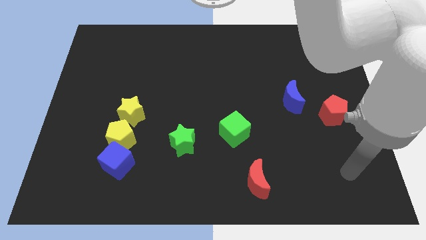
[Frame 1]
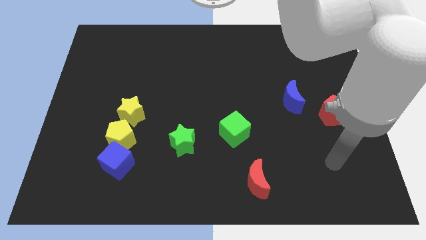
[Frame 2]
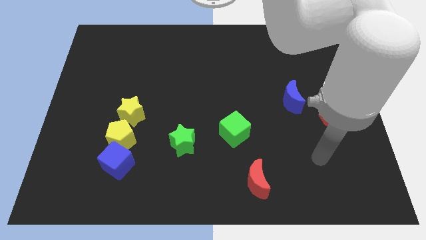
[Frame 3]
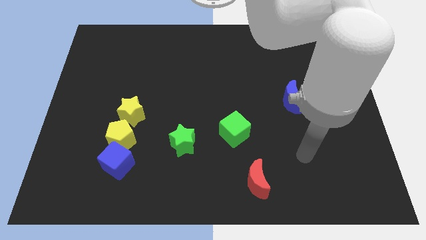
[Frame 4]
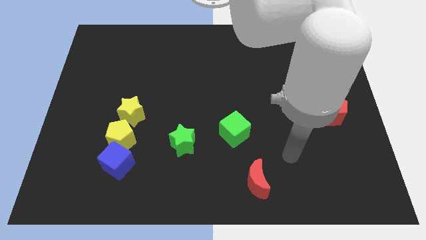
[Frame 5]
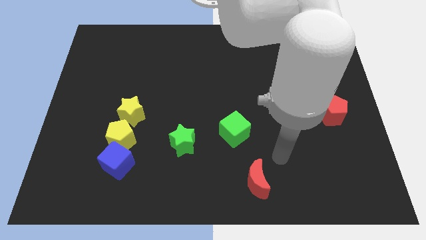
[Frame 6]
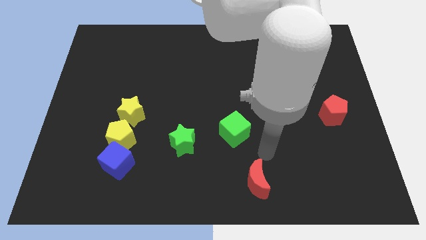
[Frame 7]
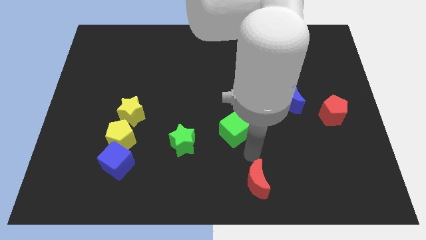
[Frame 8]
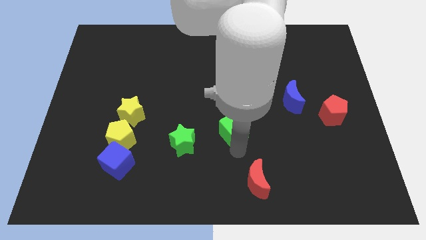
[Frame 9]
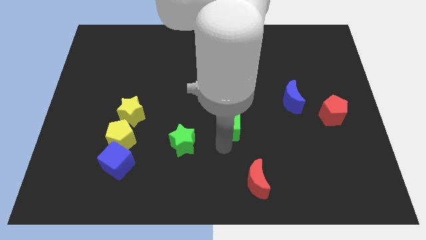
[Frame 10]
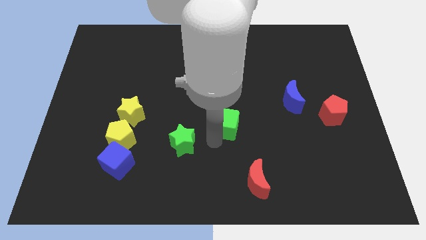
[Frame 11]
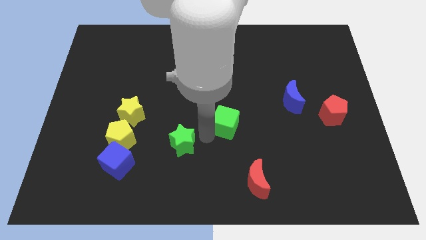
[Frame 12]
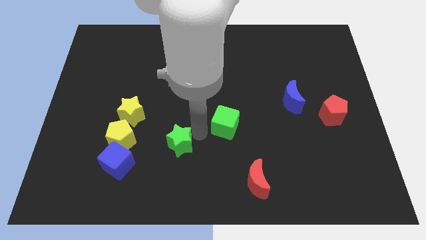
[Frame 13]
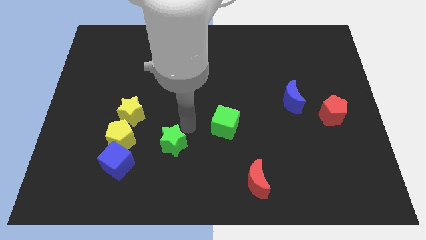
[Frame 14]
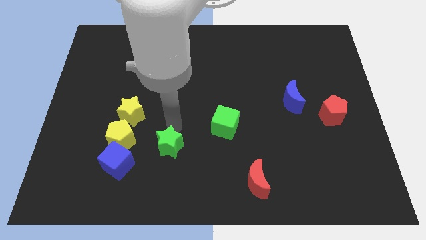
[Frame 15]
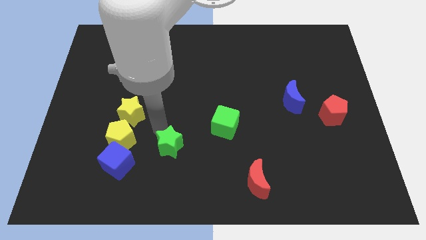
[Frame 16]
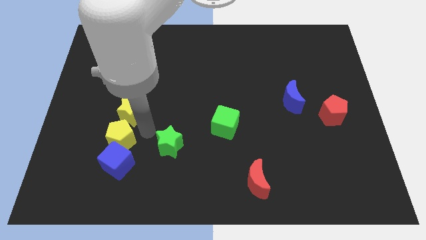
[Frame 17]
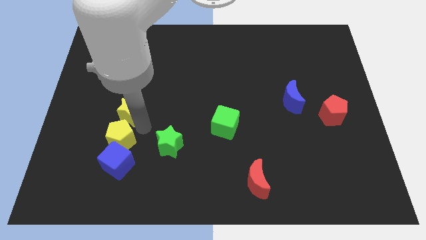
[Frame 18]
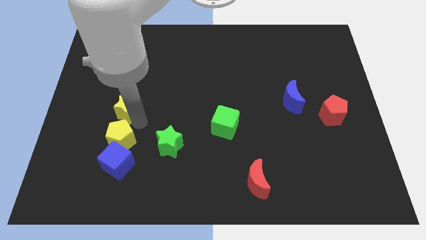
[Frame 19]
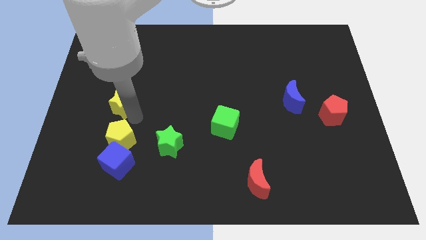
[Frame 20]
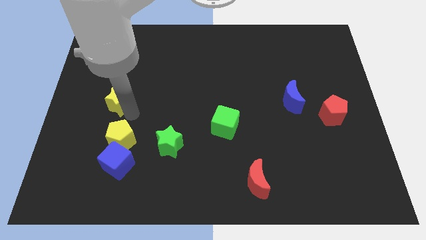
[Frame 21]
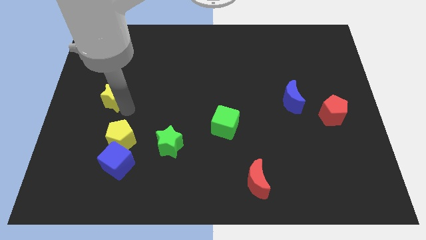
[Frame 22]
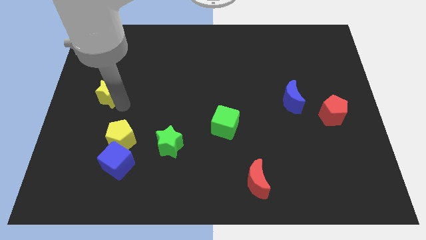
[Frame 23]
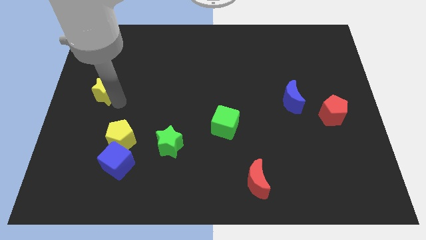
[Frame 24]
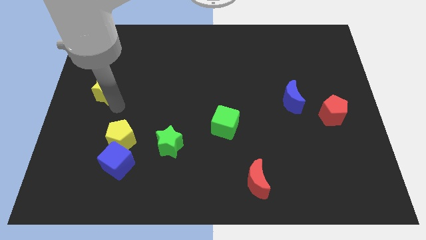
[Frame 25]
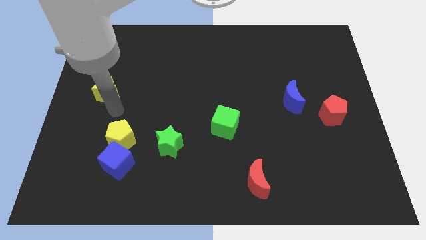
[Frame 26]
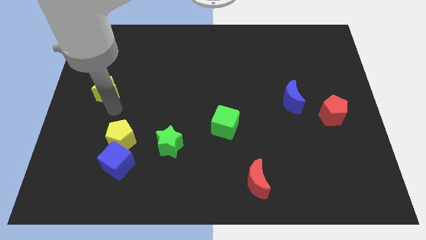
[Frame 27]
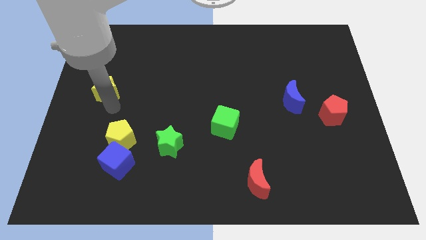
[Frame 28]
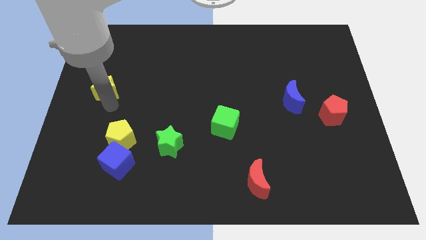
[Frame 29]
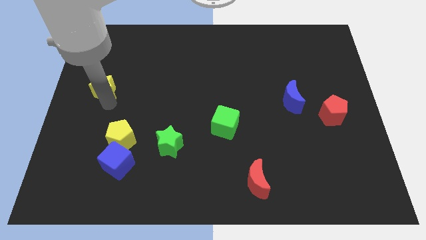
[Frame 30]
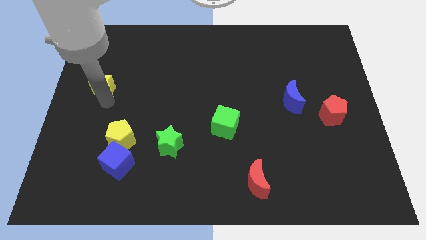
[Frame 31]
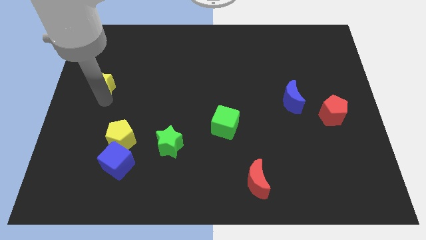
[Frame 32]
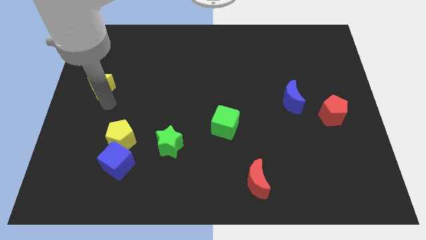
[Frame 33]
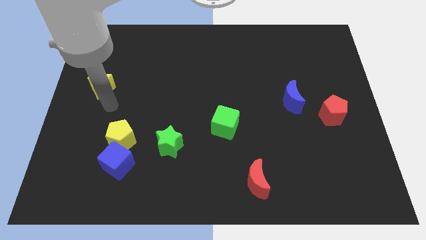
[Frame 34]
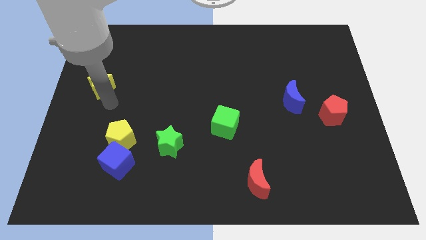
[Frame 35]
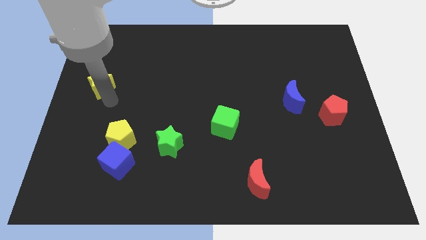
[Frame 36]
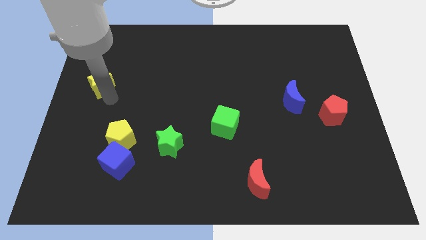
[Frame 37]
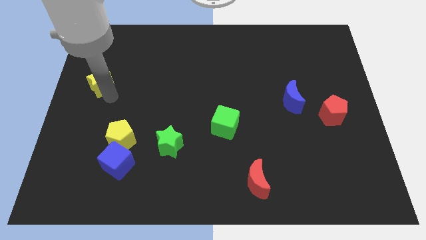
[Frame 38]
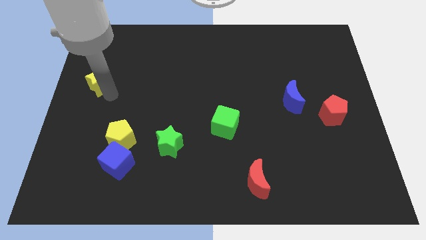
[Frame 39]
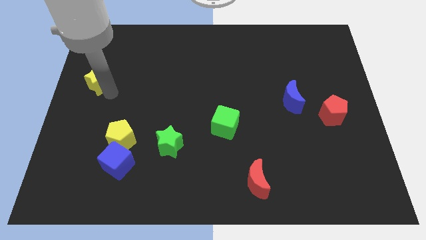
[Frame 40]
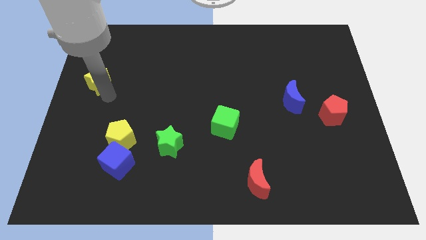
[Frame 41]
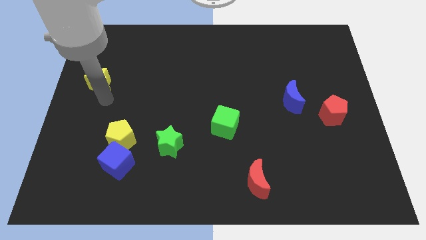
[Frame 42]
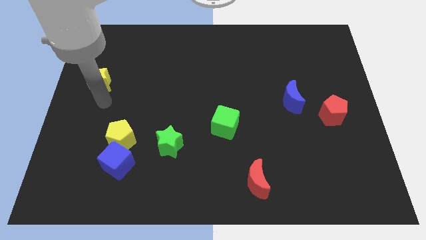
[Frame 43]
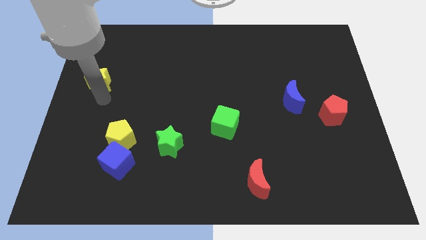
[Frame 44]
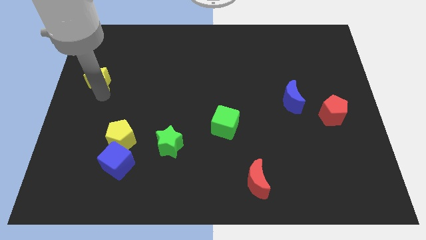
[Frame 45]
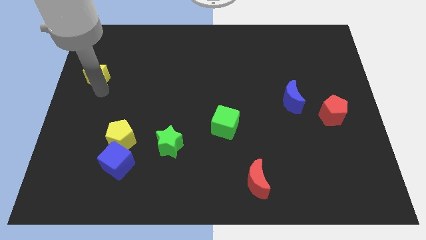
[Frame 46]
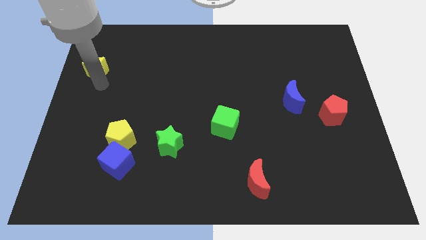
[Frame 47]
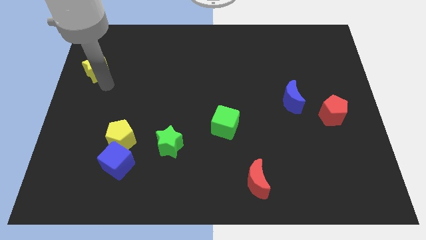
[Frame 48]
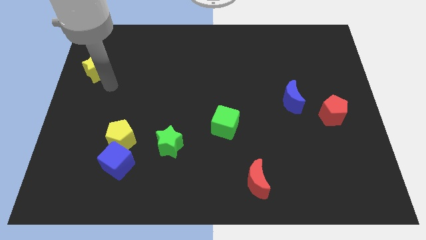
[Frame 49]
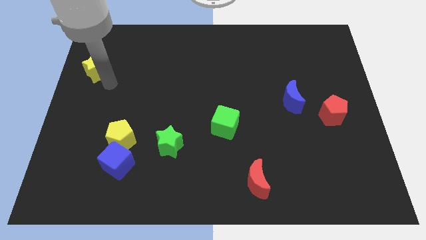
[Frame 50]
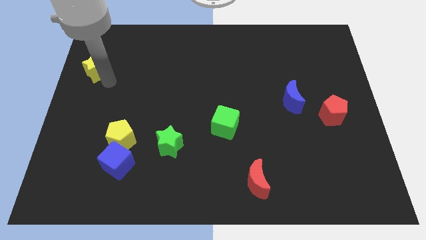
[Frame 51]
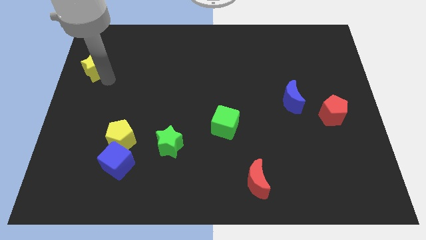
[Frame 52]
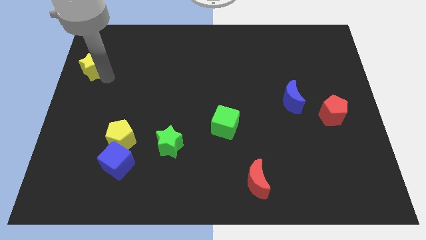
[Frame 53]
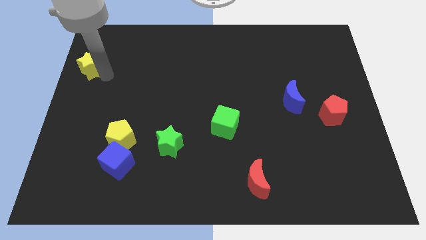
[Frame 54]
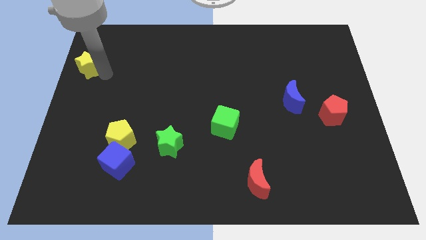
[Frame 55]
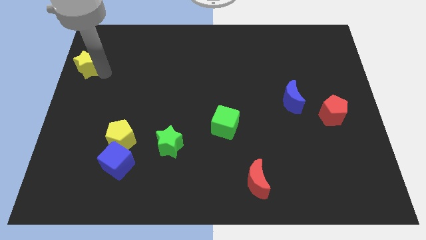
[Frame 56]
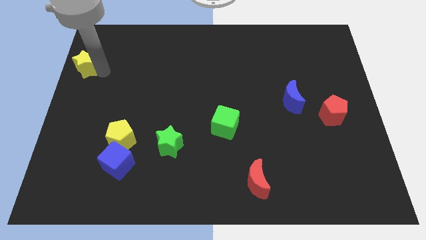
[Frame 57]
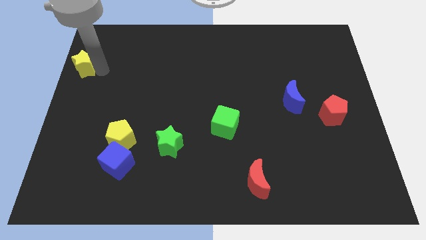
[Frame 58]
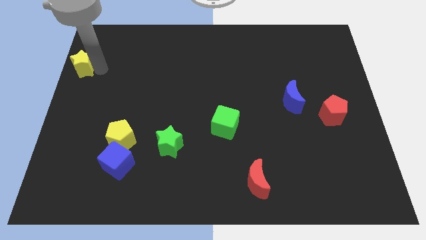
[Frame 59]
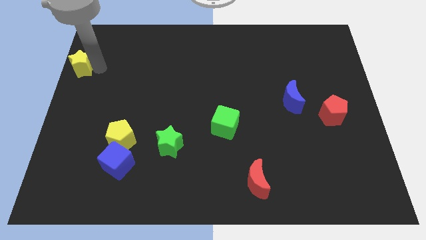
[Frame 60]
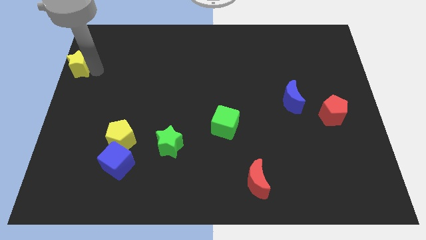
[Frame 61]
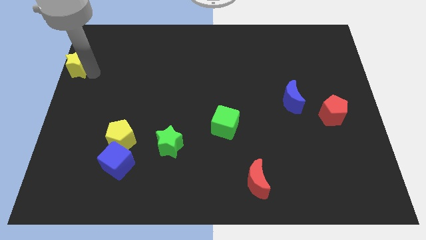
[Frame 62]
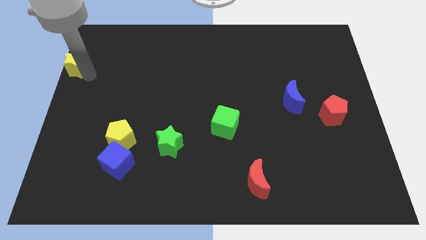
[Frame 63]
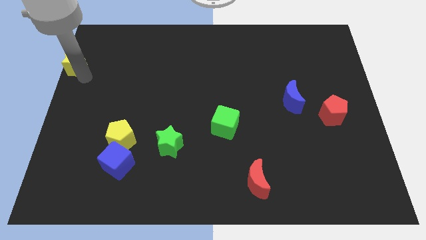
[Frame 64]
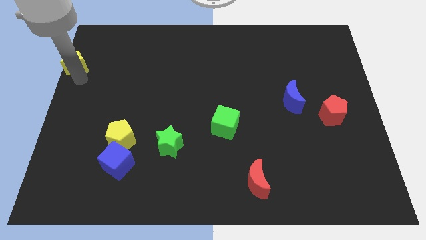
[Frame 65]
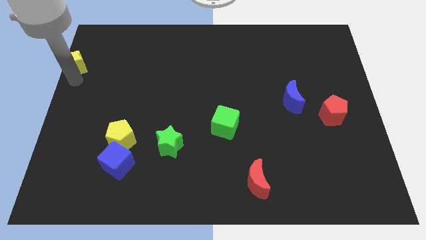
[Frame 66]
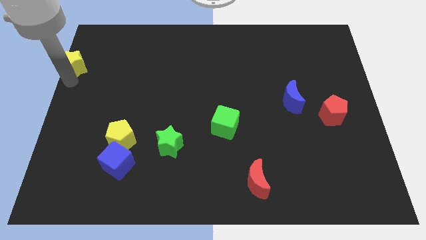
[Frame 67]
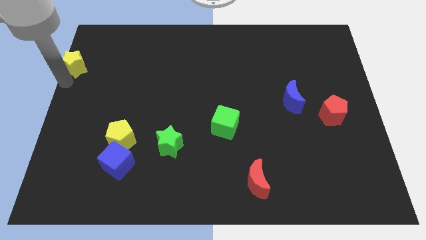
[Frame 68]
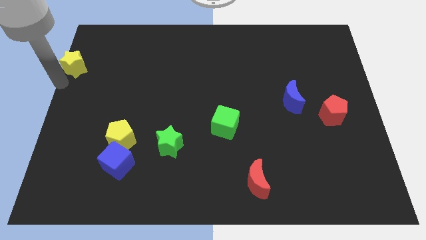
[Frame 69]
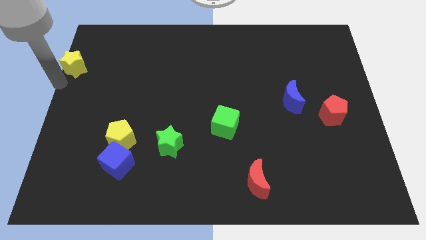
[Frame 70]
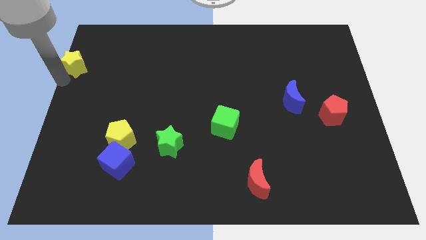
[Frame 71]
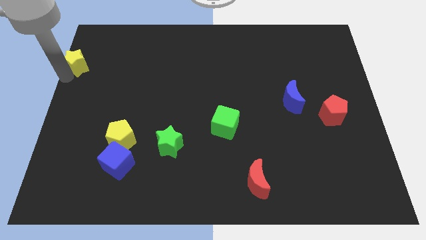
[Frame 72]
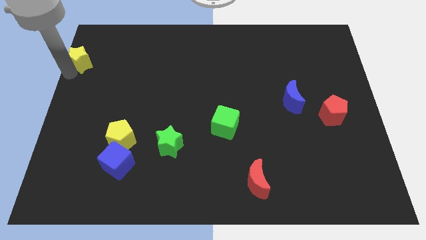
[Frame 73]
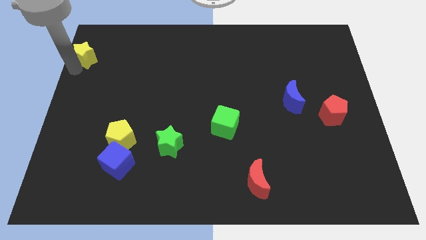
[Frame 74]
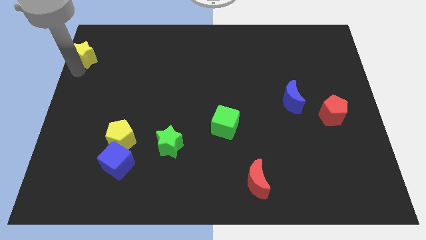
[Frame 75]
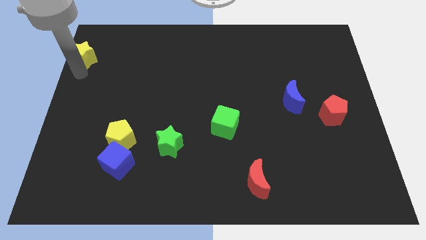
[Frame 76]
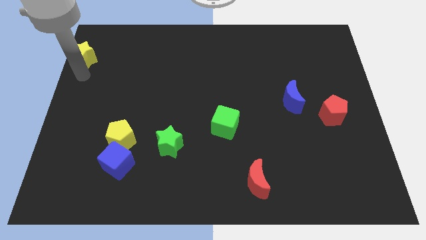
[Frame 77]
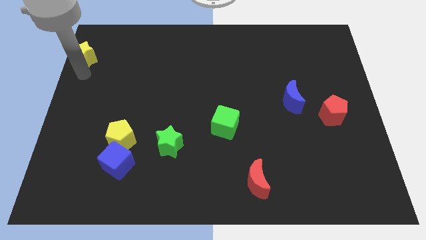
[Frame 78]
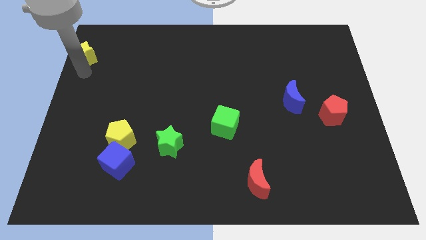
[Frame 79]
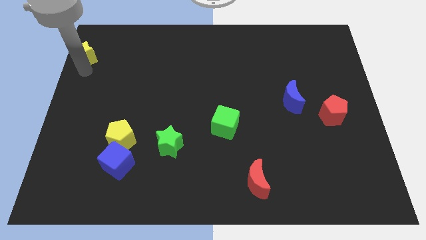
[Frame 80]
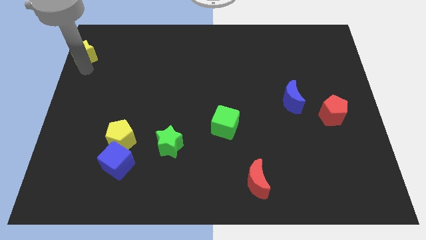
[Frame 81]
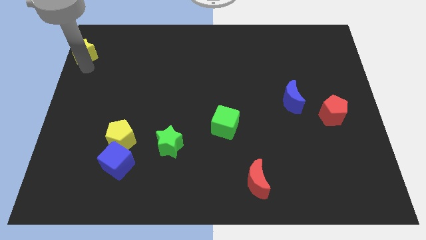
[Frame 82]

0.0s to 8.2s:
move the yellow star to the top left corner
